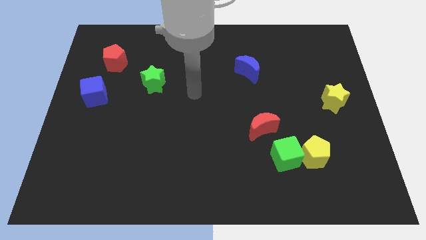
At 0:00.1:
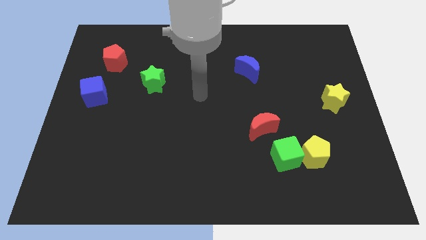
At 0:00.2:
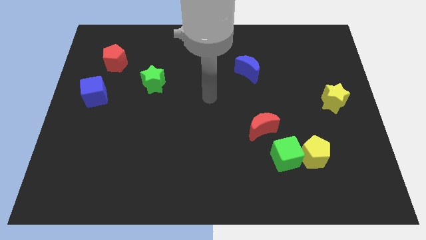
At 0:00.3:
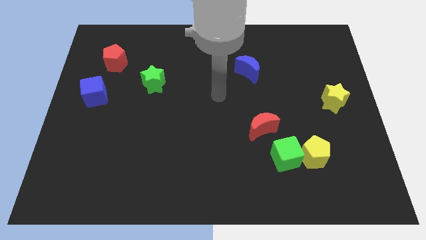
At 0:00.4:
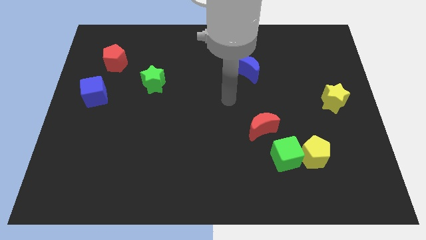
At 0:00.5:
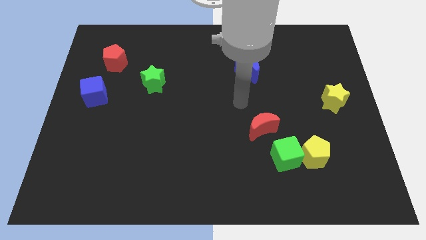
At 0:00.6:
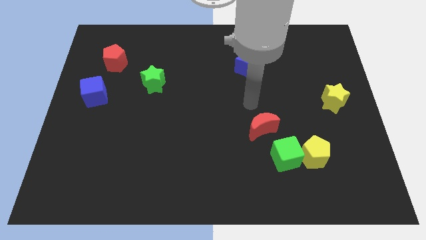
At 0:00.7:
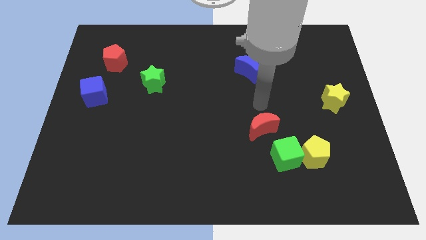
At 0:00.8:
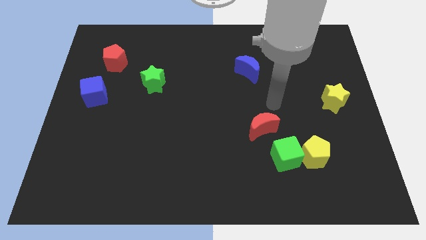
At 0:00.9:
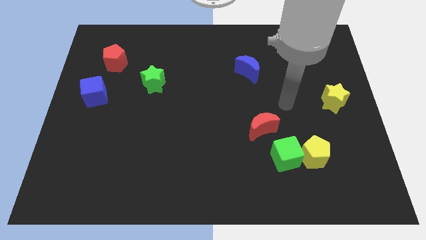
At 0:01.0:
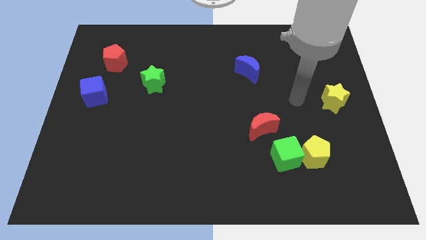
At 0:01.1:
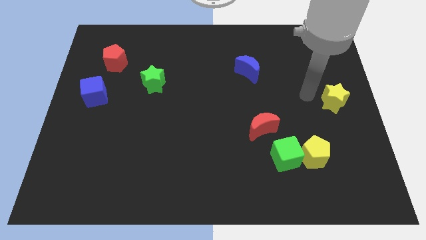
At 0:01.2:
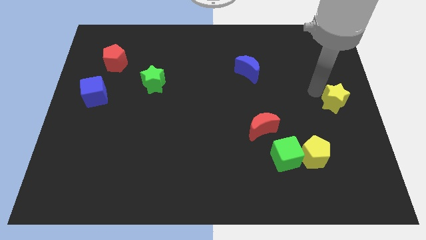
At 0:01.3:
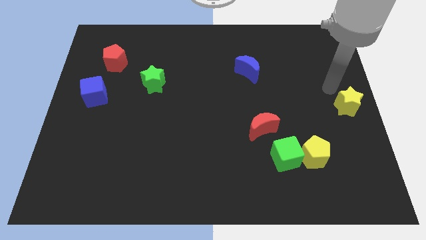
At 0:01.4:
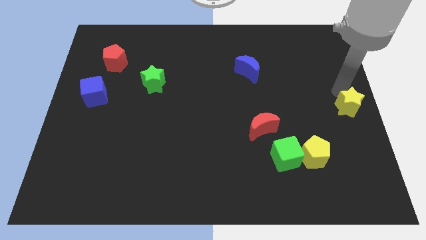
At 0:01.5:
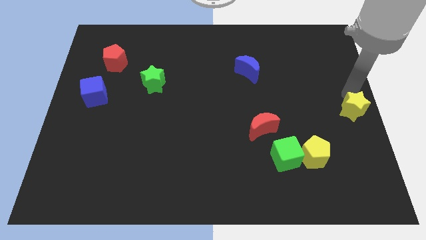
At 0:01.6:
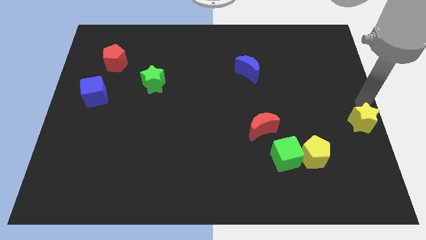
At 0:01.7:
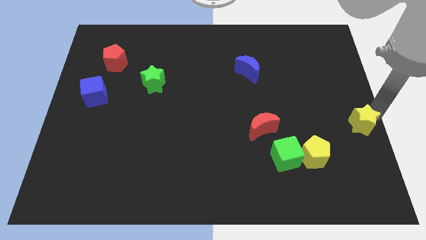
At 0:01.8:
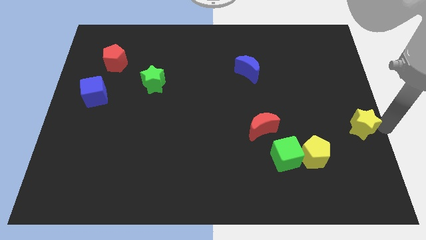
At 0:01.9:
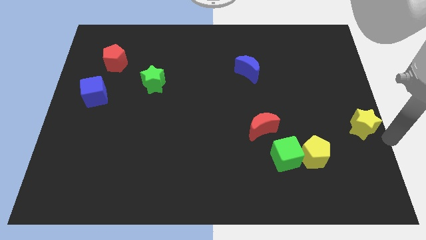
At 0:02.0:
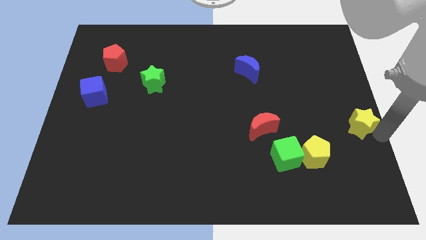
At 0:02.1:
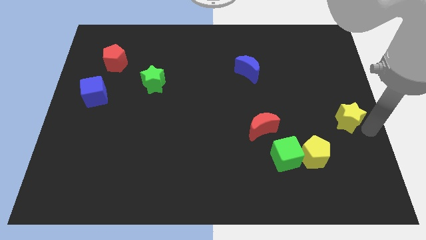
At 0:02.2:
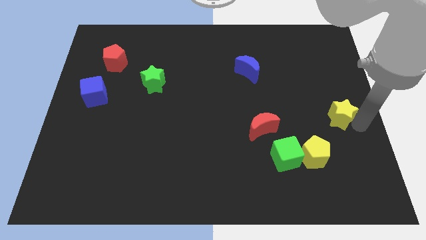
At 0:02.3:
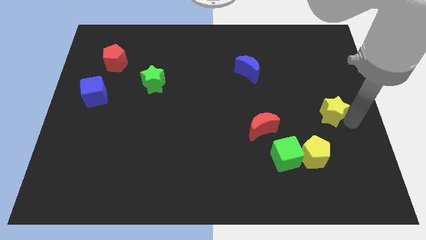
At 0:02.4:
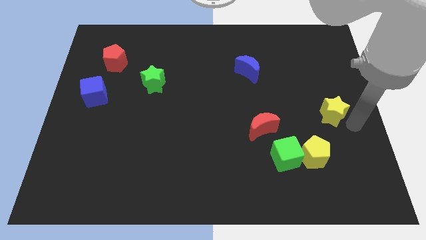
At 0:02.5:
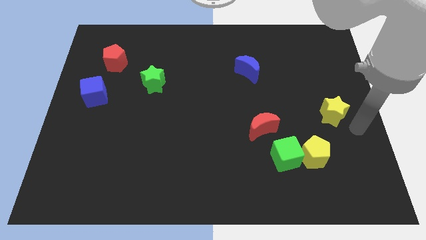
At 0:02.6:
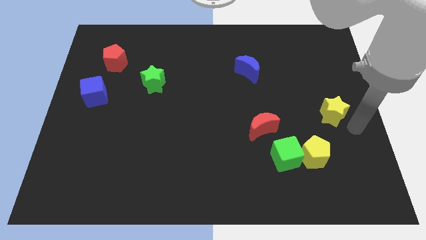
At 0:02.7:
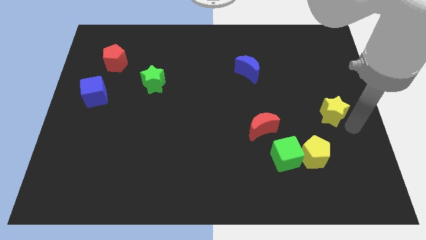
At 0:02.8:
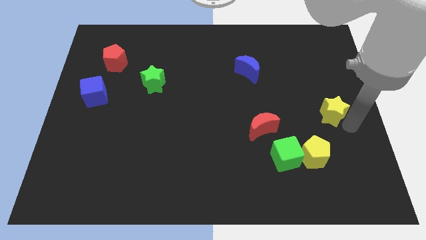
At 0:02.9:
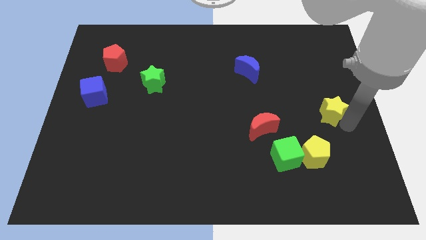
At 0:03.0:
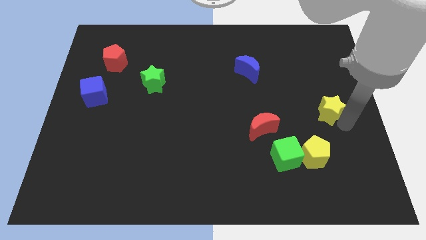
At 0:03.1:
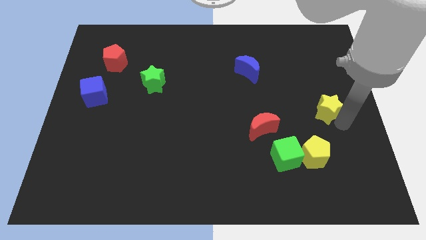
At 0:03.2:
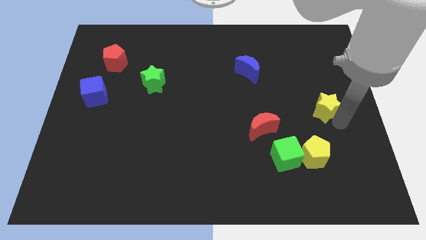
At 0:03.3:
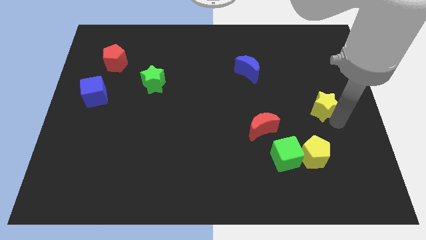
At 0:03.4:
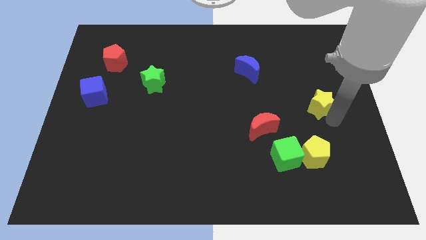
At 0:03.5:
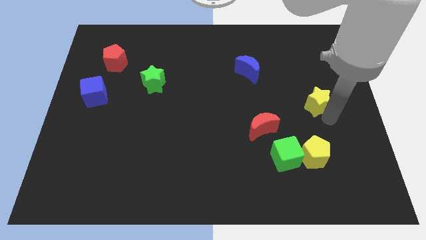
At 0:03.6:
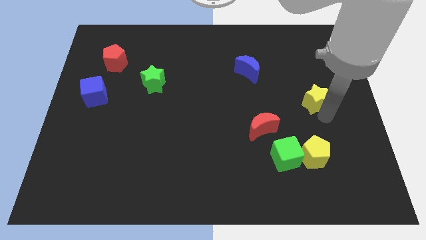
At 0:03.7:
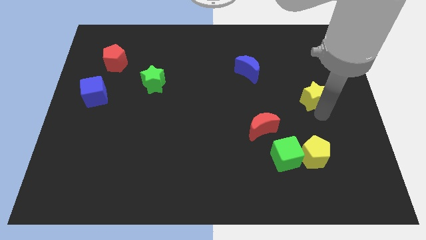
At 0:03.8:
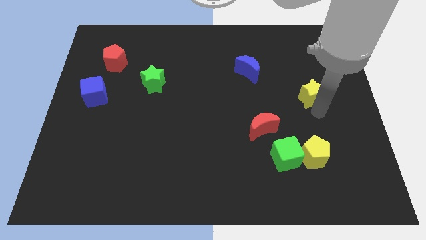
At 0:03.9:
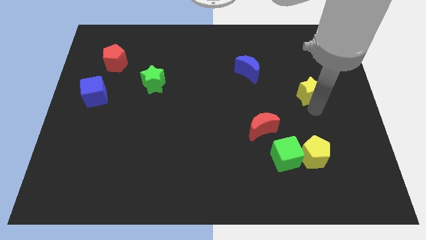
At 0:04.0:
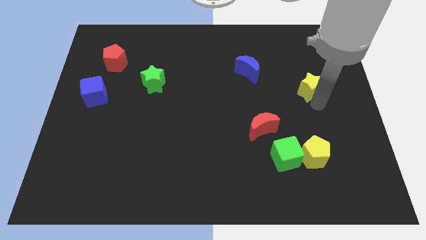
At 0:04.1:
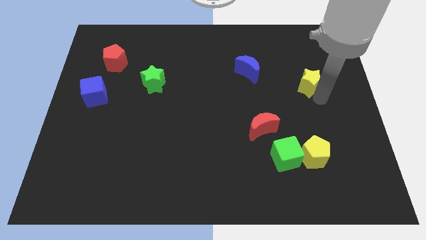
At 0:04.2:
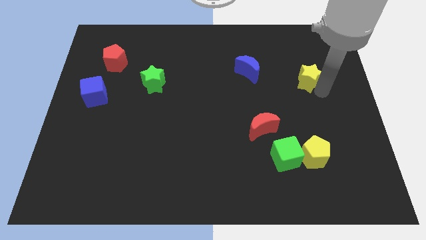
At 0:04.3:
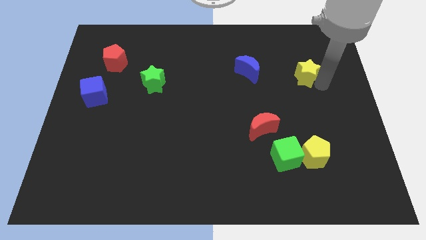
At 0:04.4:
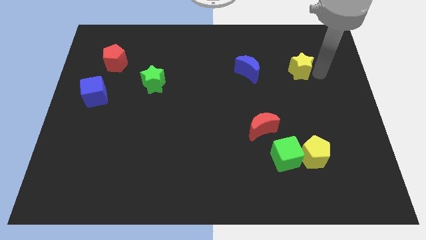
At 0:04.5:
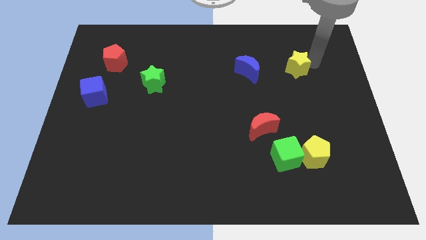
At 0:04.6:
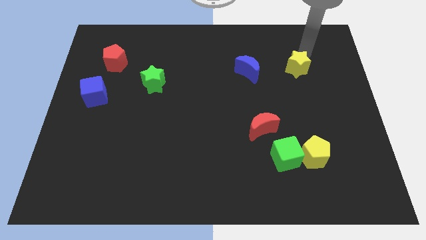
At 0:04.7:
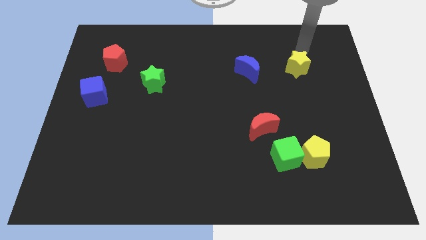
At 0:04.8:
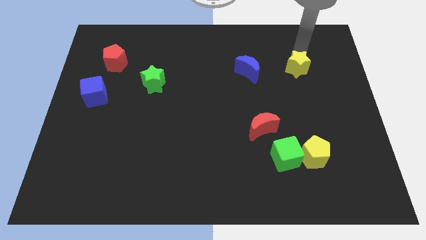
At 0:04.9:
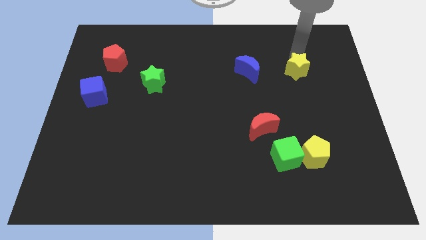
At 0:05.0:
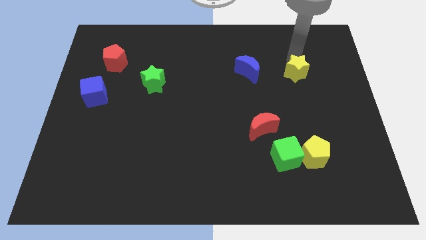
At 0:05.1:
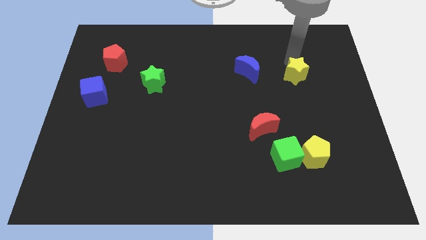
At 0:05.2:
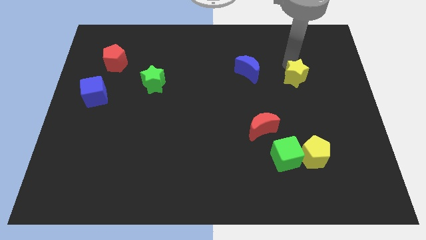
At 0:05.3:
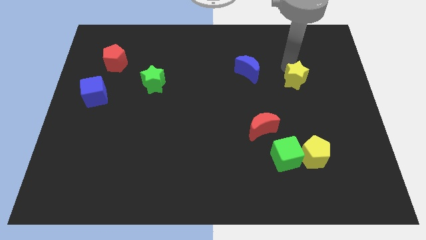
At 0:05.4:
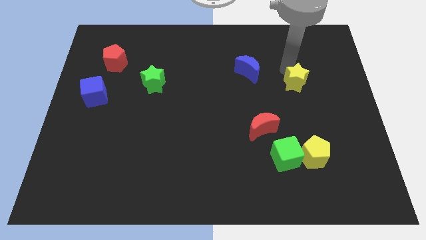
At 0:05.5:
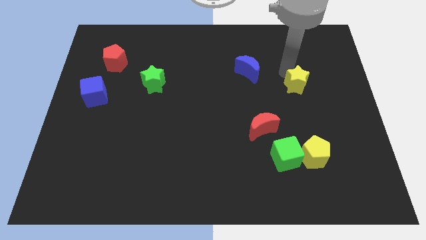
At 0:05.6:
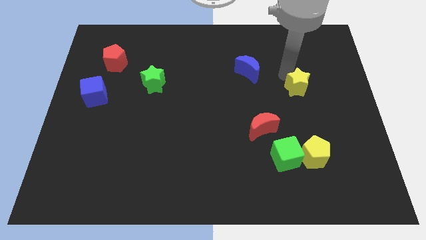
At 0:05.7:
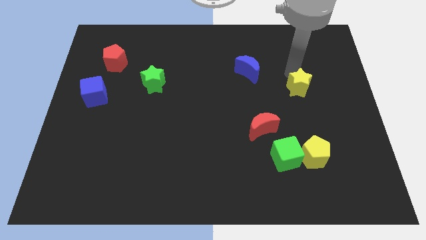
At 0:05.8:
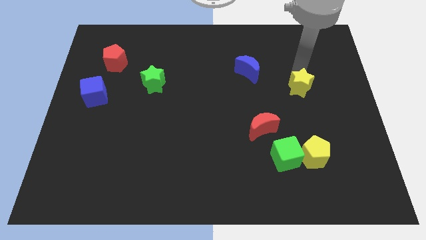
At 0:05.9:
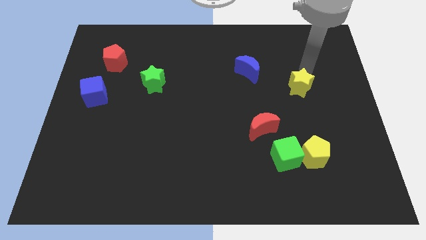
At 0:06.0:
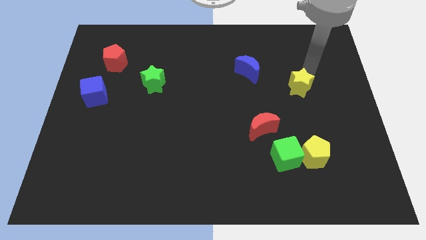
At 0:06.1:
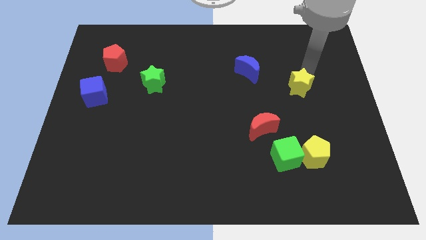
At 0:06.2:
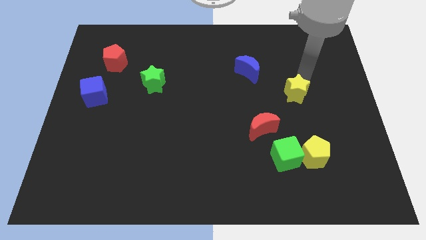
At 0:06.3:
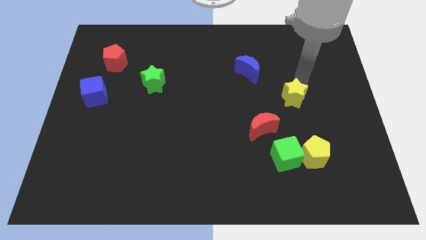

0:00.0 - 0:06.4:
push the yellow star to the top right side of the red moon

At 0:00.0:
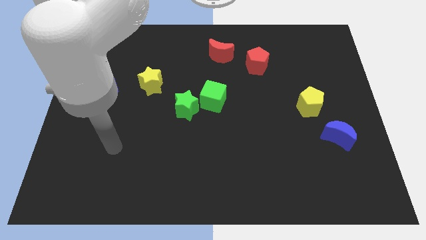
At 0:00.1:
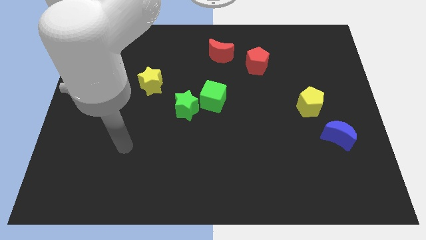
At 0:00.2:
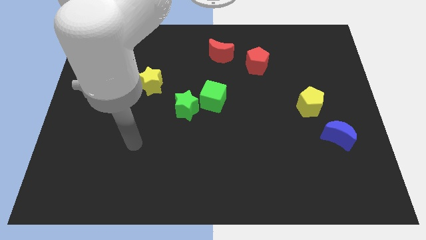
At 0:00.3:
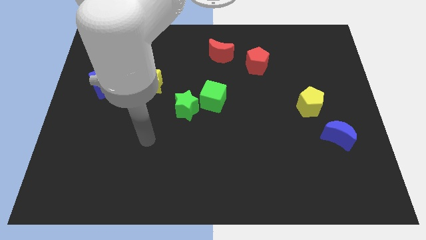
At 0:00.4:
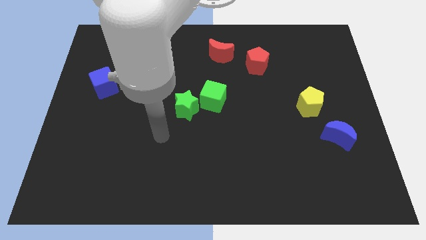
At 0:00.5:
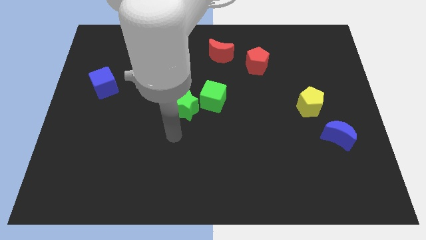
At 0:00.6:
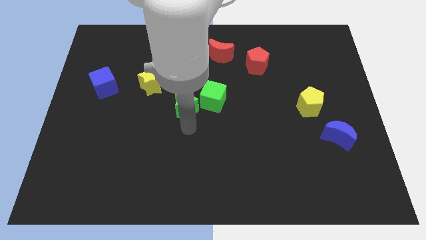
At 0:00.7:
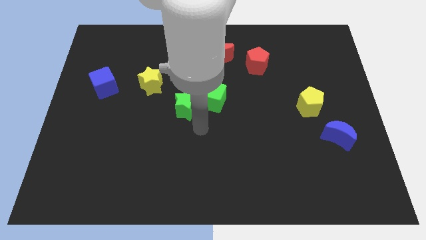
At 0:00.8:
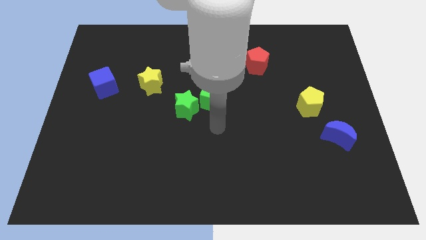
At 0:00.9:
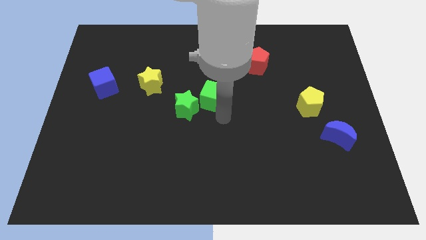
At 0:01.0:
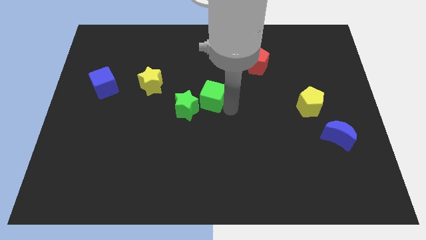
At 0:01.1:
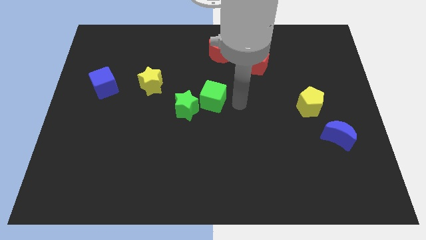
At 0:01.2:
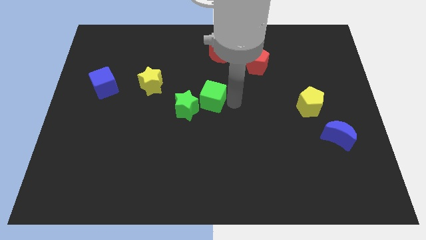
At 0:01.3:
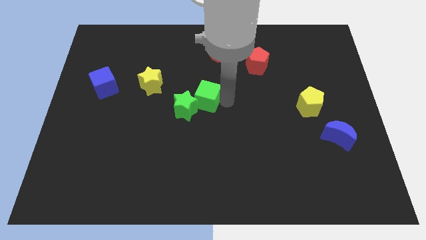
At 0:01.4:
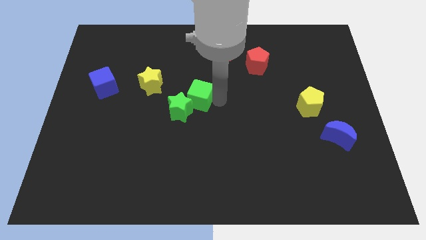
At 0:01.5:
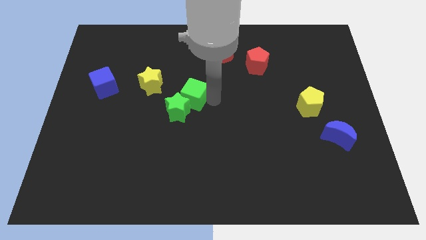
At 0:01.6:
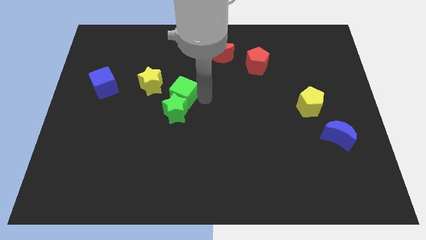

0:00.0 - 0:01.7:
push the green cube diagonally up and to the left of the green star
